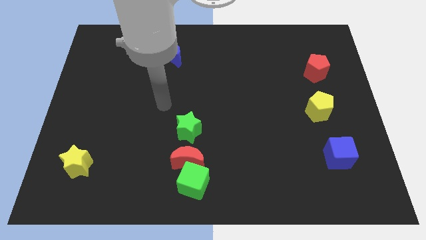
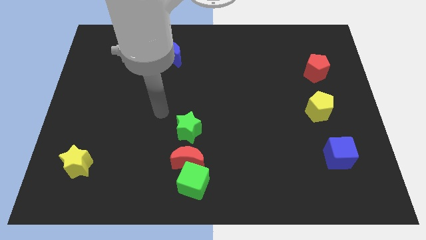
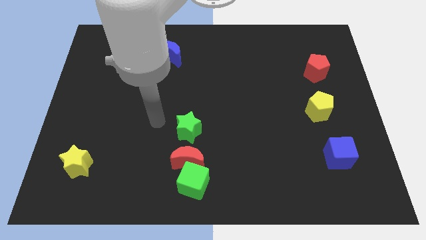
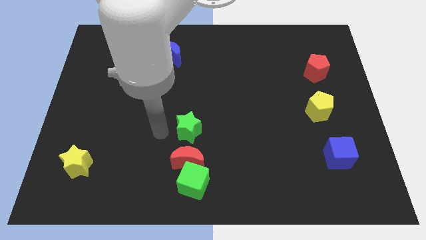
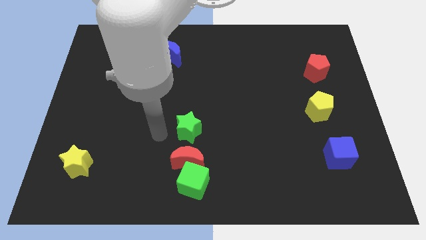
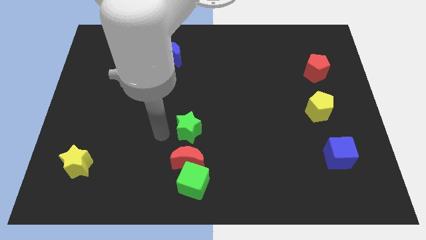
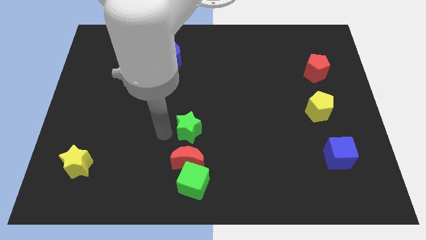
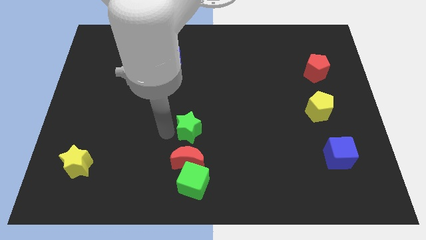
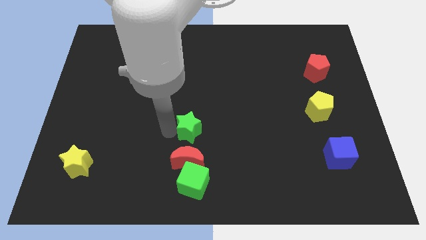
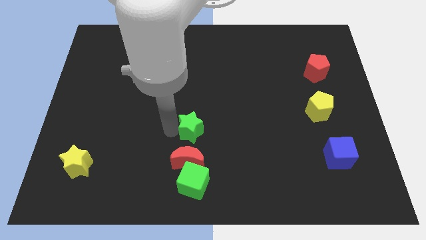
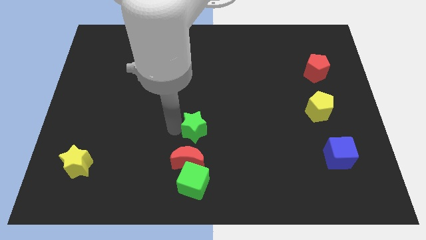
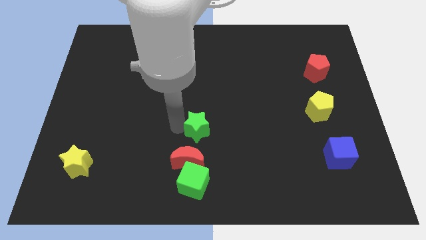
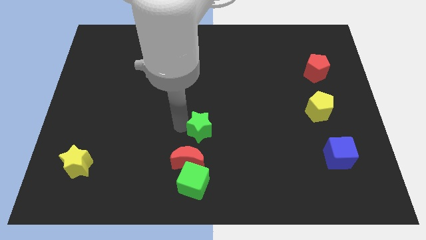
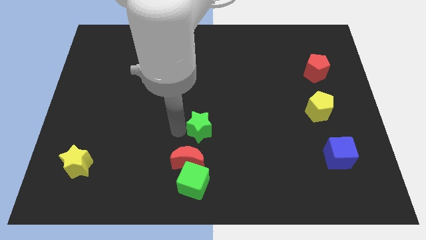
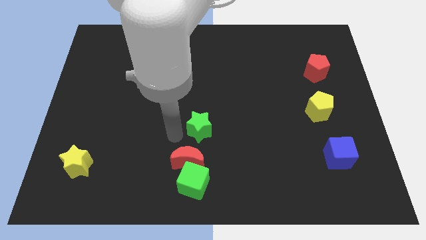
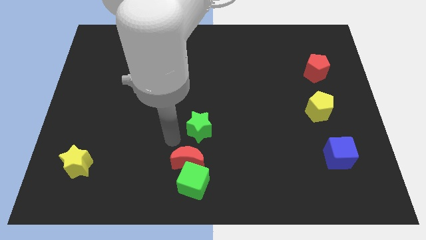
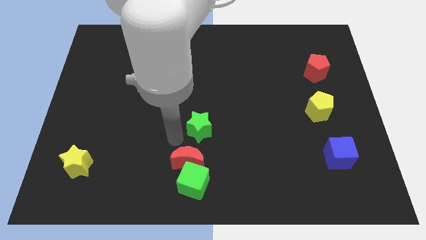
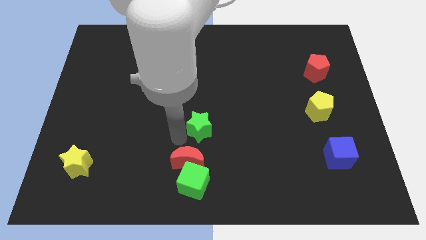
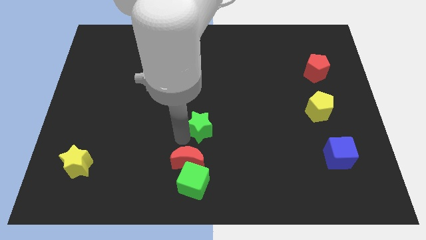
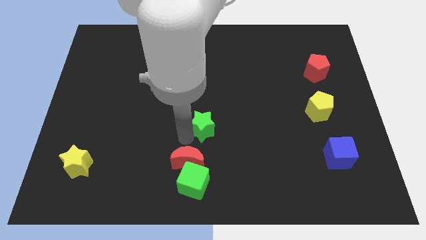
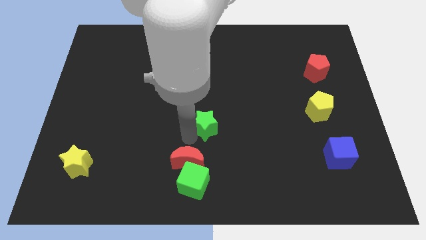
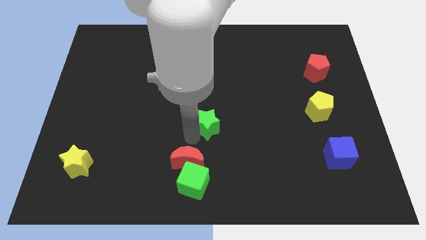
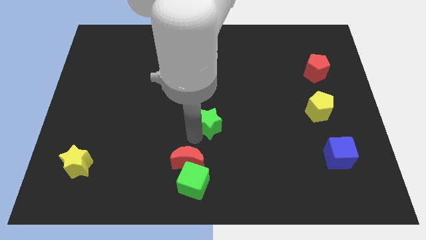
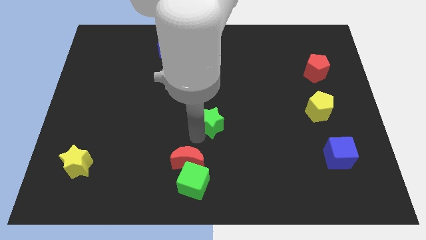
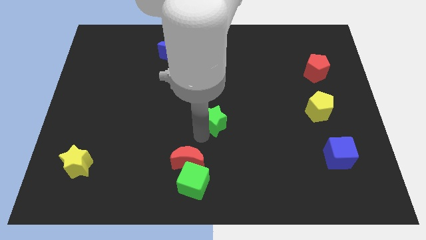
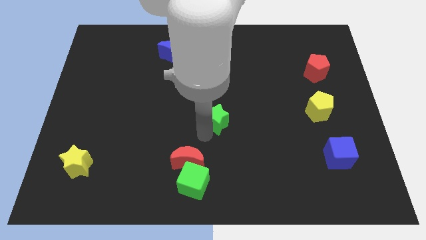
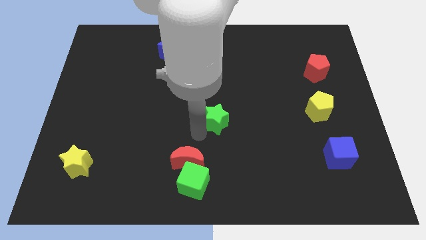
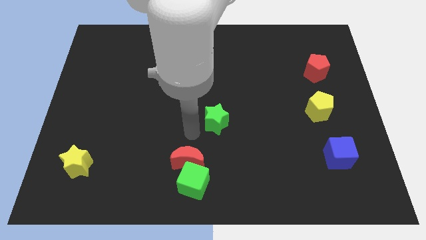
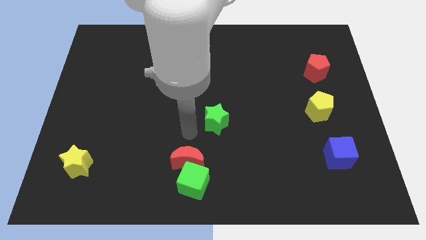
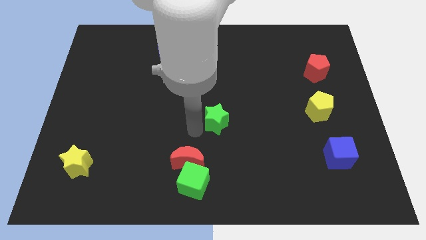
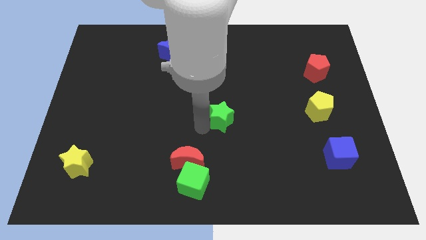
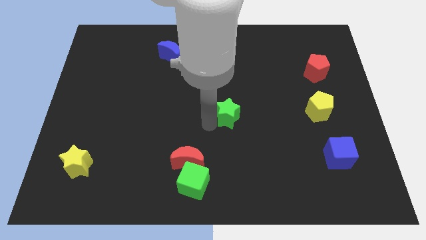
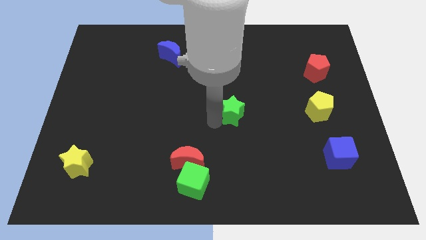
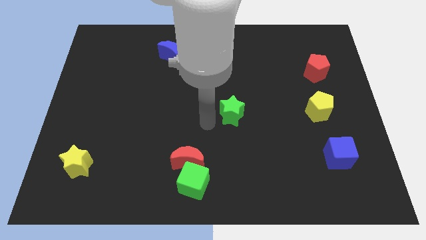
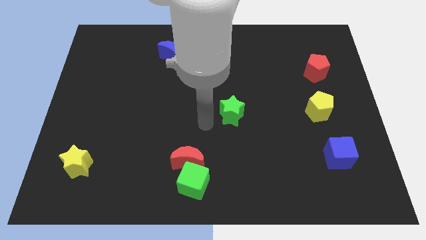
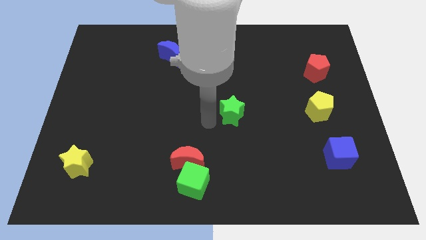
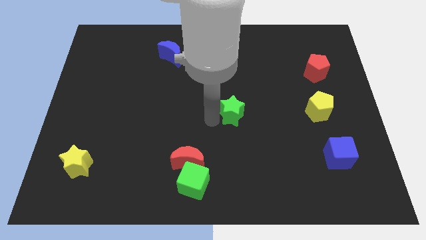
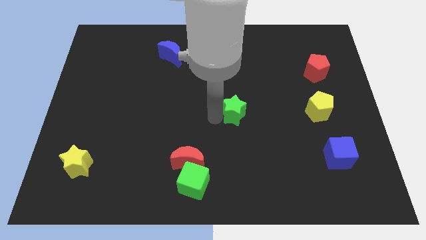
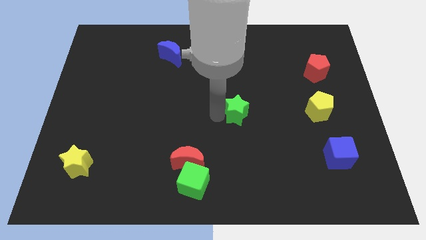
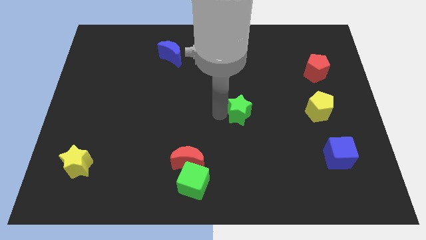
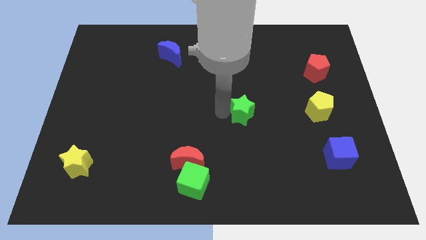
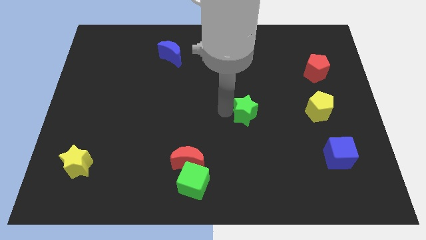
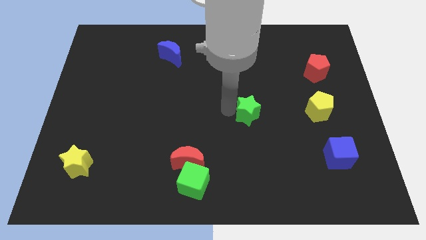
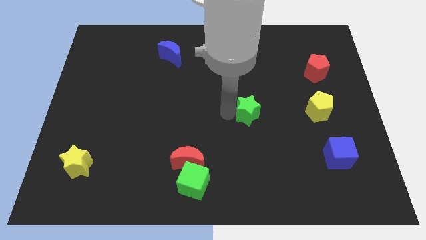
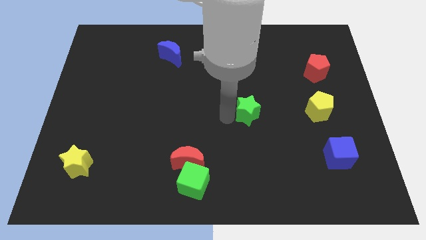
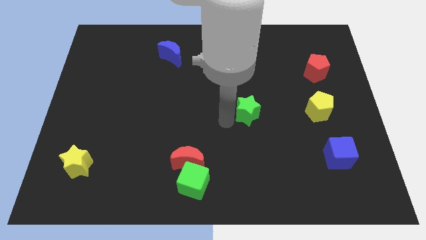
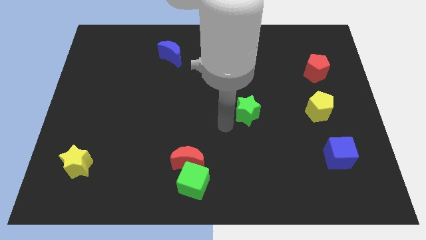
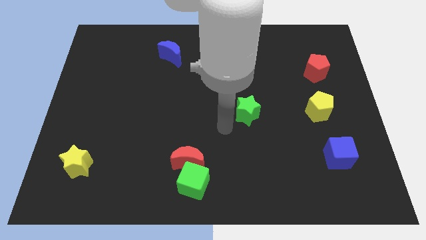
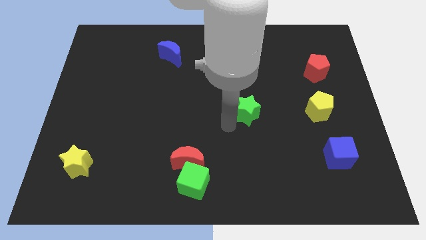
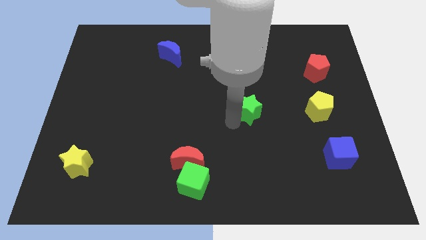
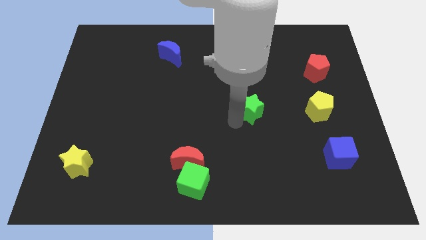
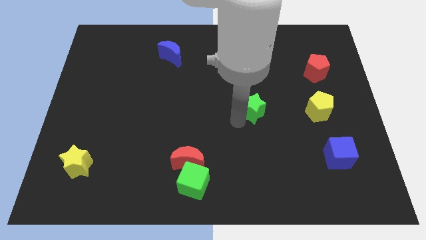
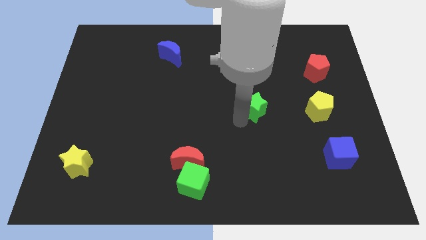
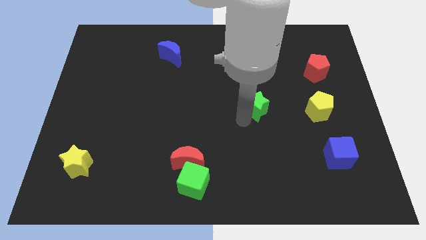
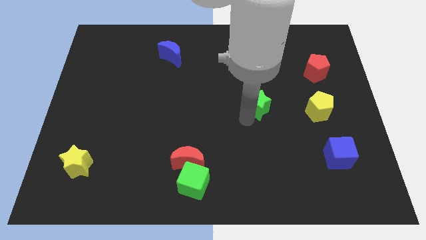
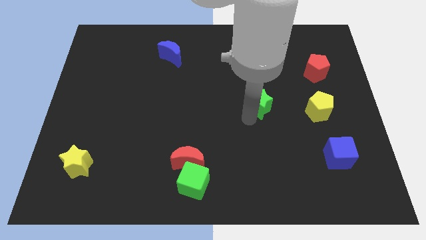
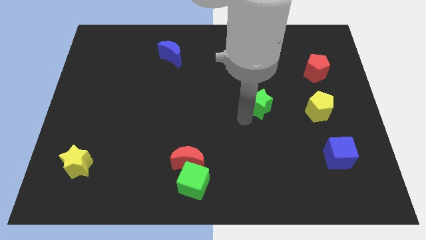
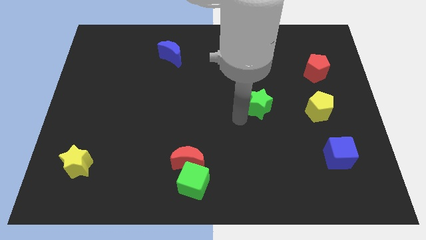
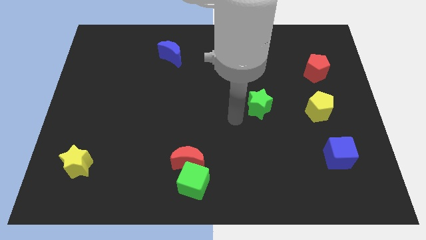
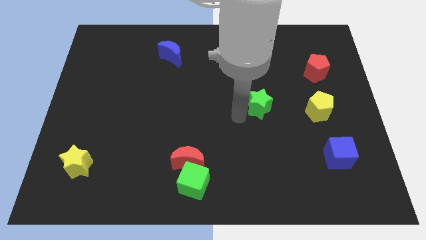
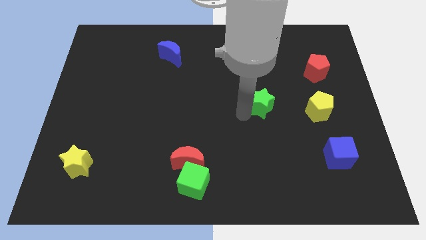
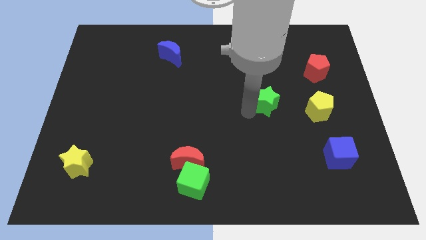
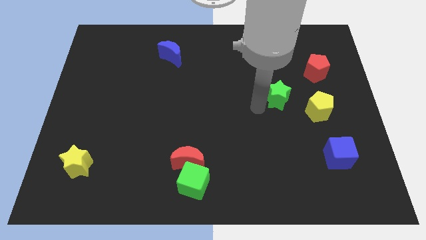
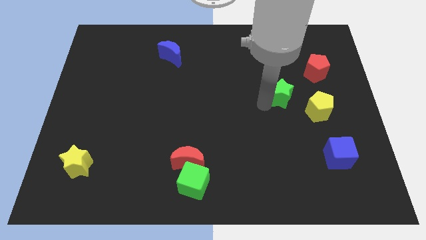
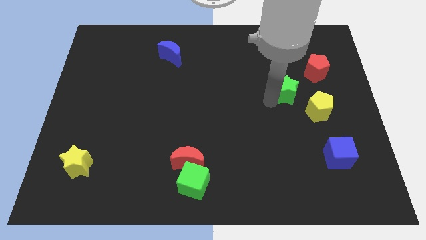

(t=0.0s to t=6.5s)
move the green star to the bottom left of the red pentagon
